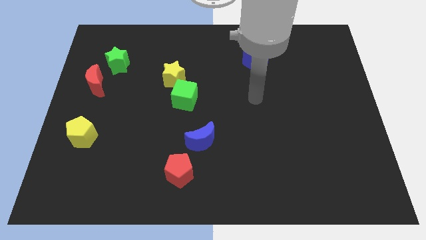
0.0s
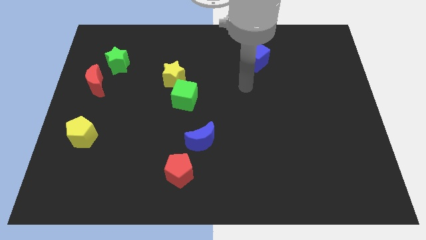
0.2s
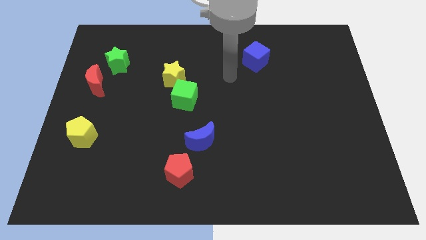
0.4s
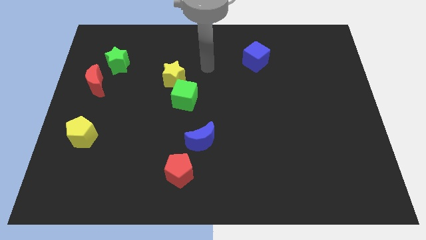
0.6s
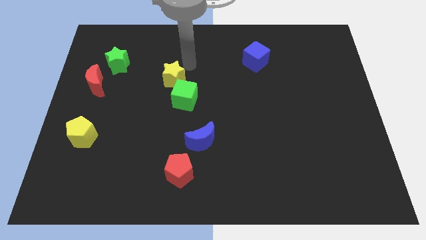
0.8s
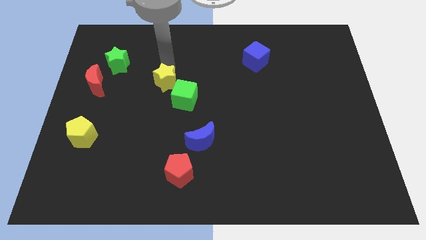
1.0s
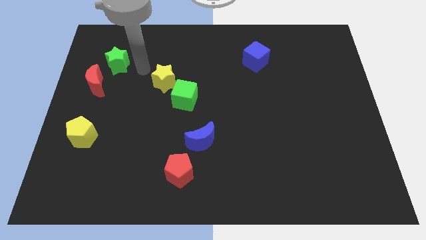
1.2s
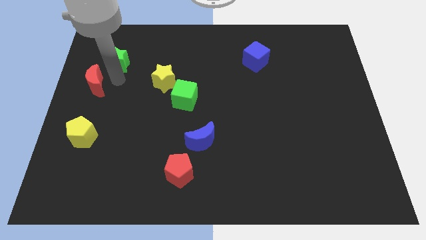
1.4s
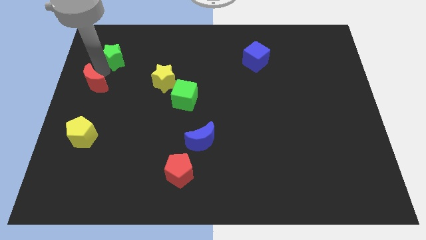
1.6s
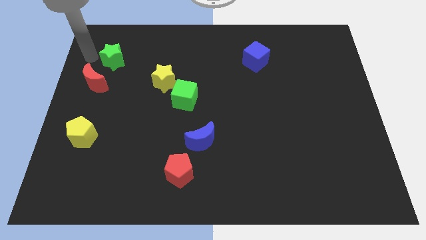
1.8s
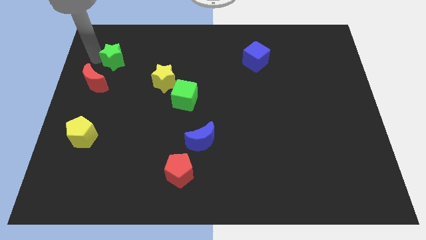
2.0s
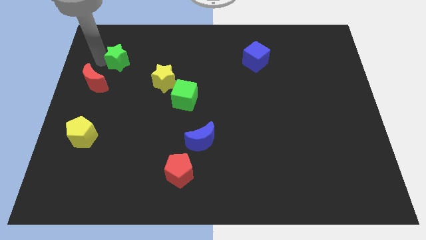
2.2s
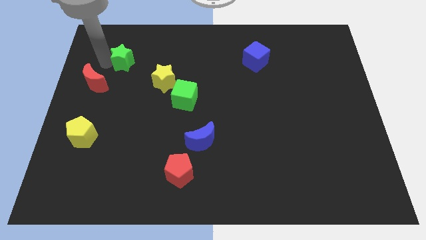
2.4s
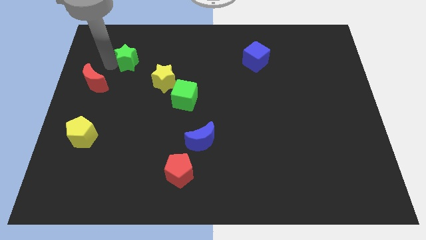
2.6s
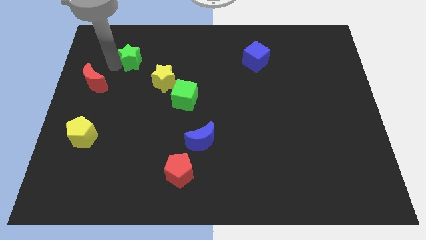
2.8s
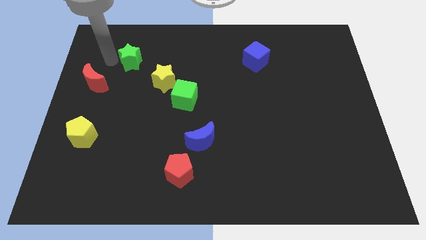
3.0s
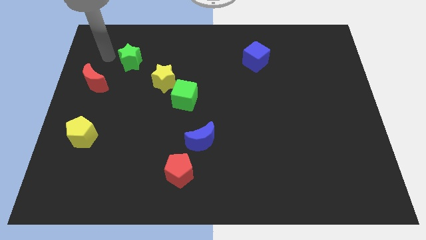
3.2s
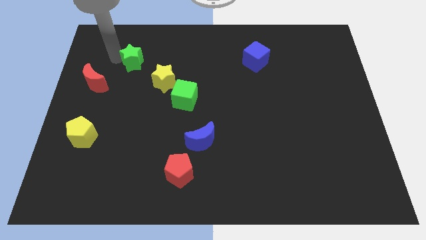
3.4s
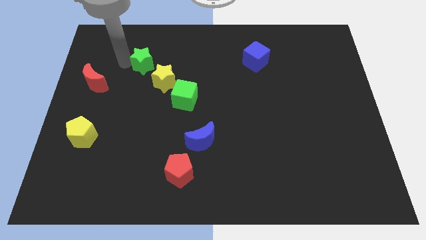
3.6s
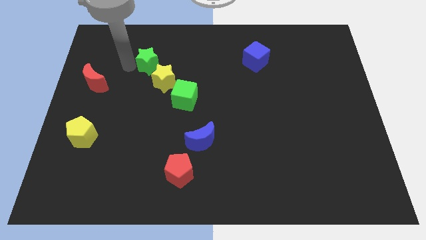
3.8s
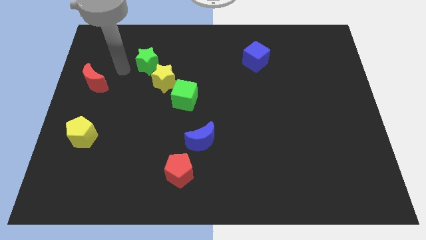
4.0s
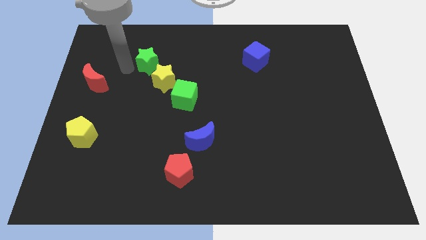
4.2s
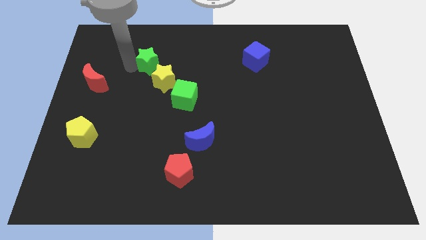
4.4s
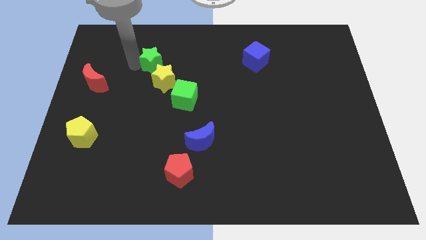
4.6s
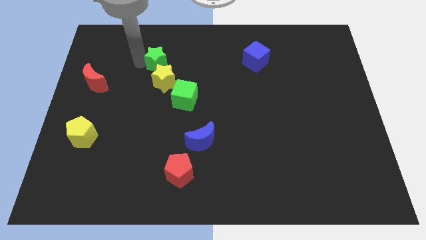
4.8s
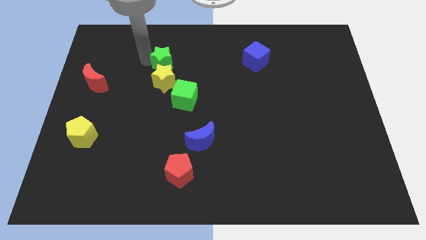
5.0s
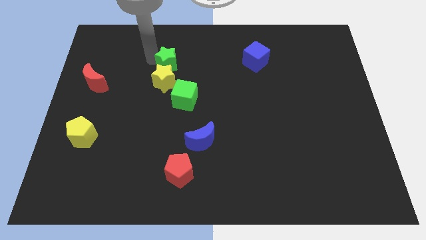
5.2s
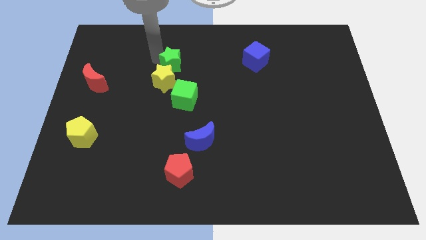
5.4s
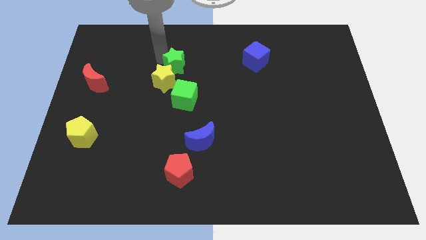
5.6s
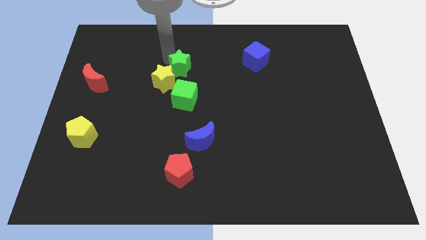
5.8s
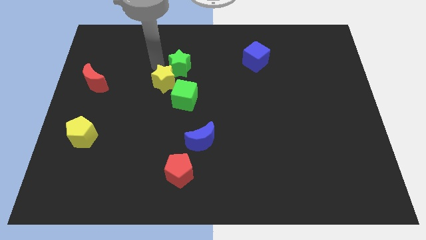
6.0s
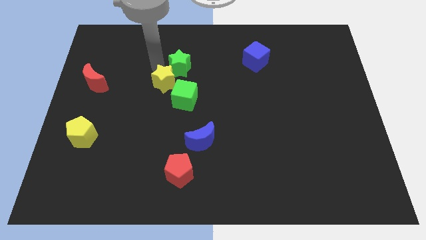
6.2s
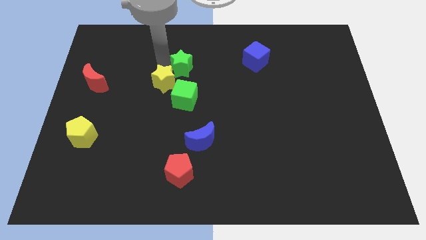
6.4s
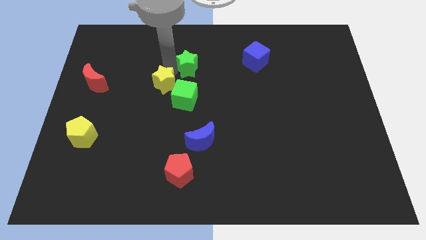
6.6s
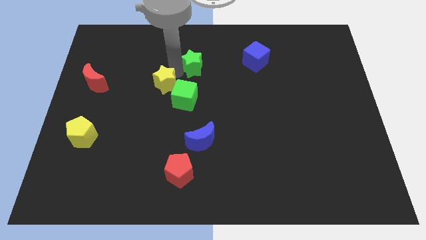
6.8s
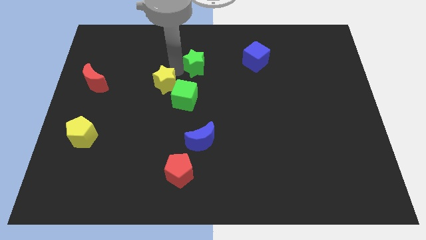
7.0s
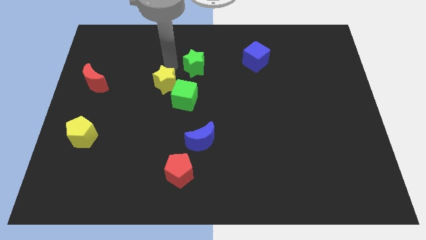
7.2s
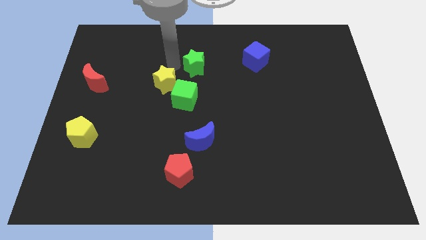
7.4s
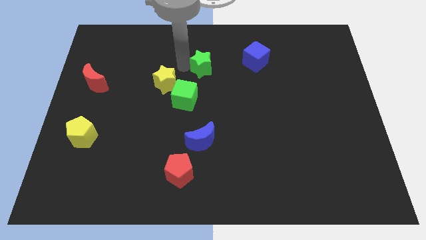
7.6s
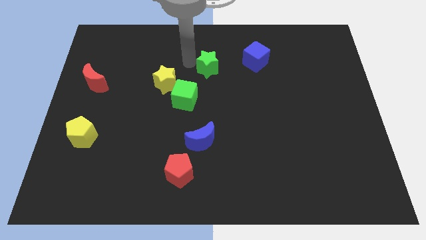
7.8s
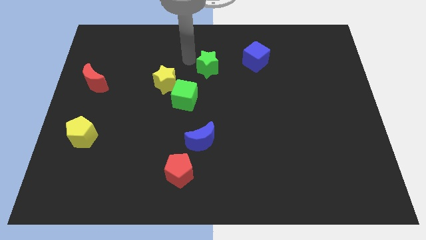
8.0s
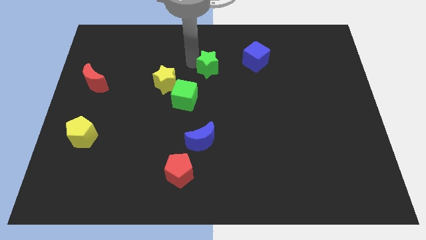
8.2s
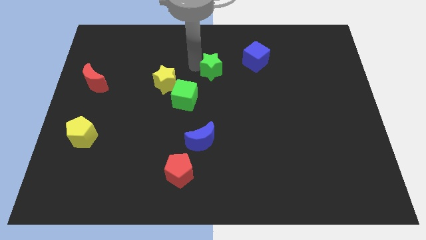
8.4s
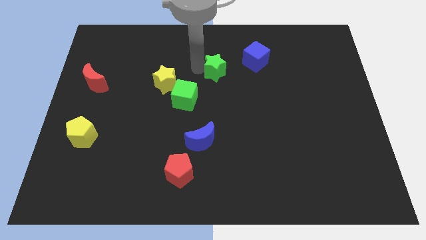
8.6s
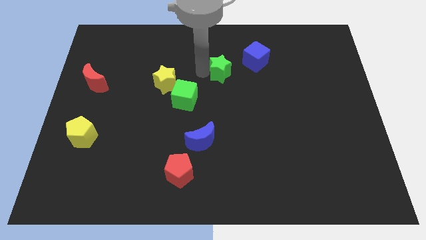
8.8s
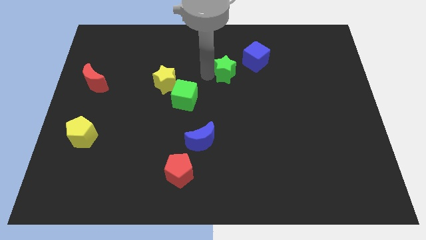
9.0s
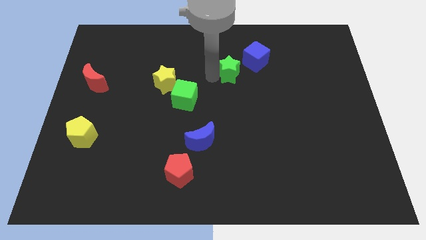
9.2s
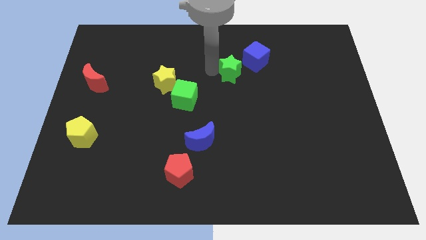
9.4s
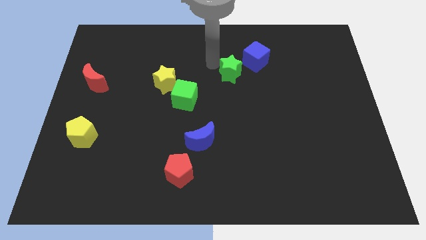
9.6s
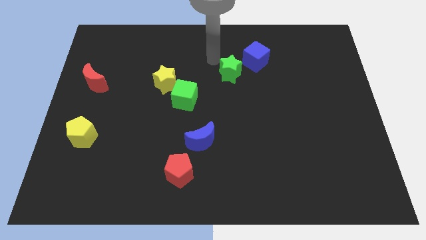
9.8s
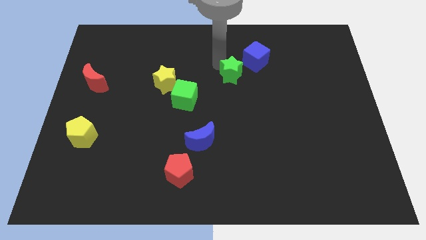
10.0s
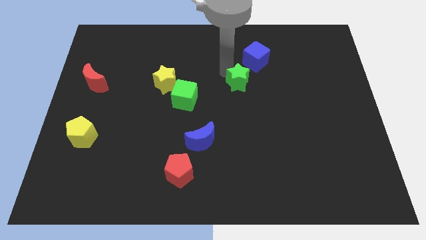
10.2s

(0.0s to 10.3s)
push the green star to the bottom of the blue cube

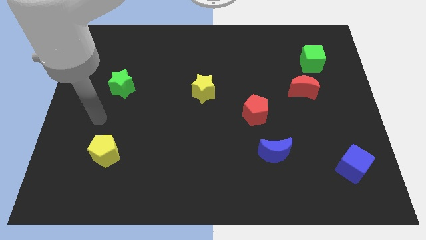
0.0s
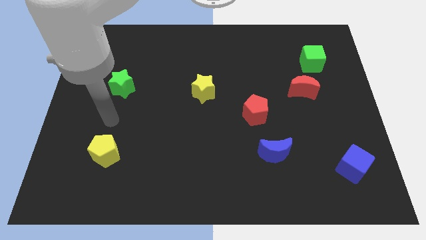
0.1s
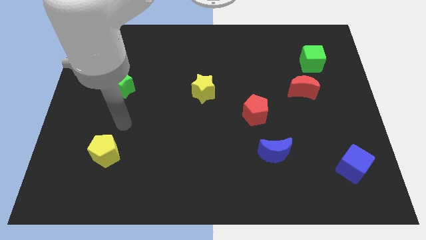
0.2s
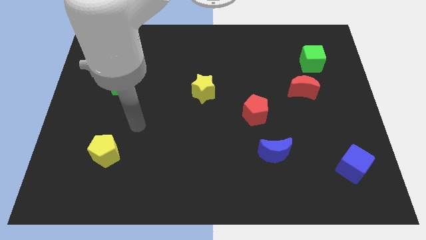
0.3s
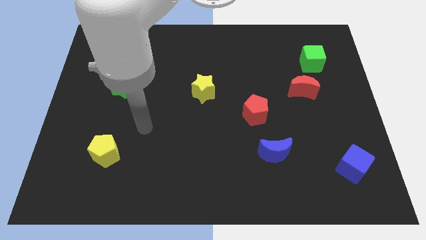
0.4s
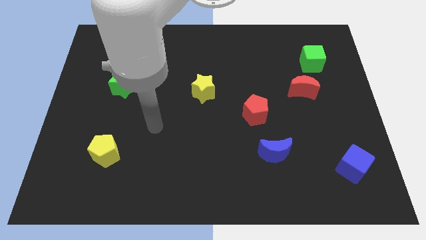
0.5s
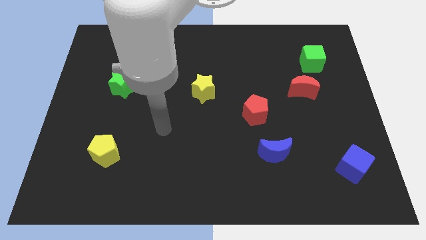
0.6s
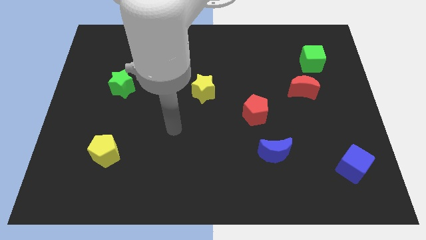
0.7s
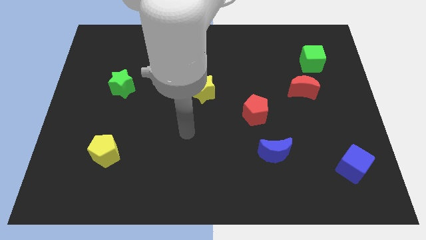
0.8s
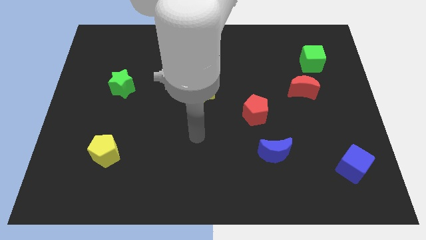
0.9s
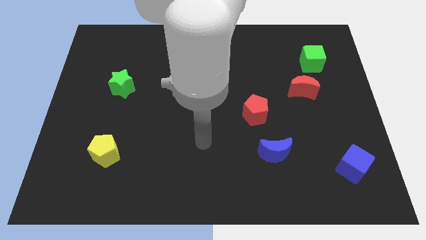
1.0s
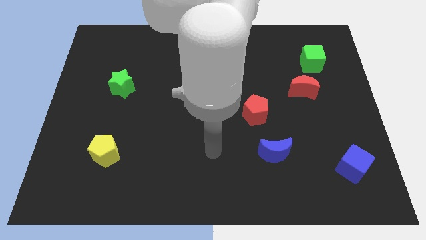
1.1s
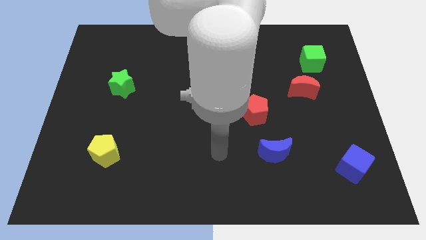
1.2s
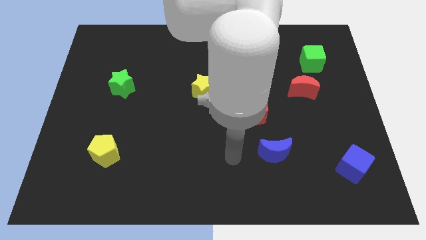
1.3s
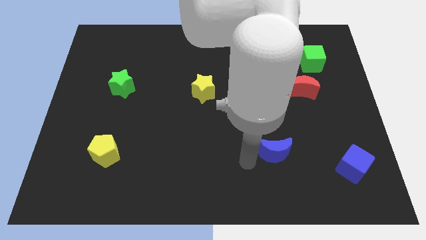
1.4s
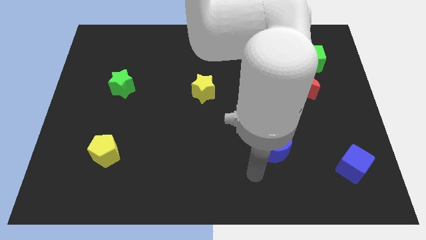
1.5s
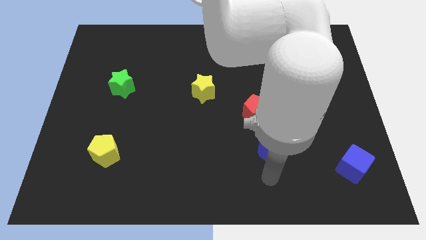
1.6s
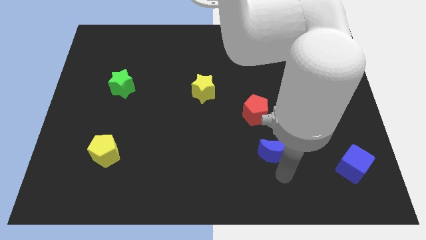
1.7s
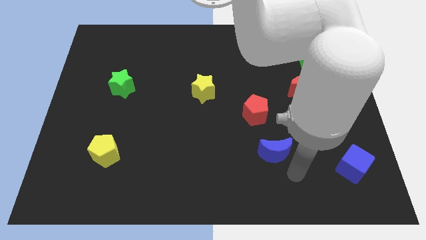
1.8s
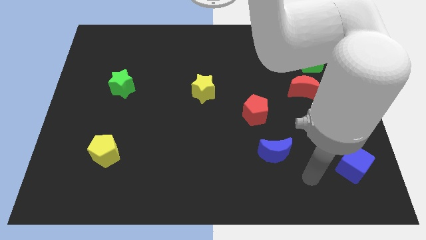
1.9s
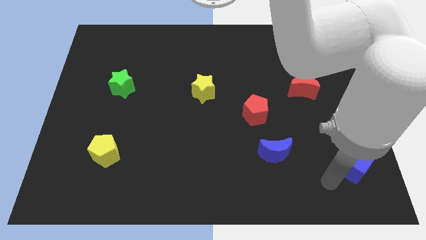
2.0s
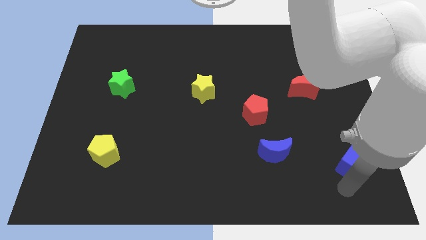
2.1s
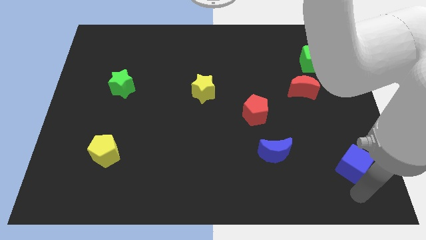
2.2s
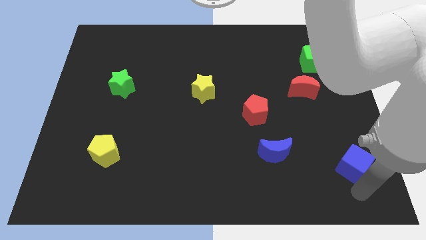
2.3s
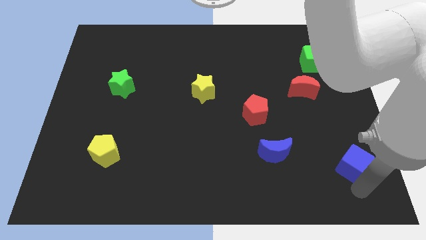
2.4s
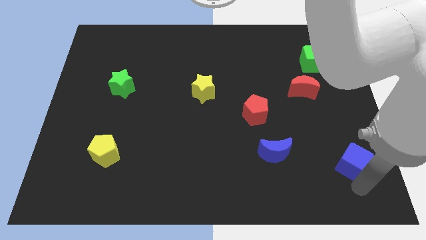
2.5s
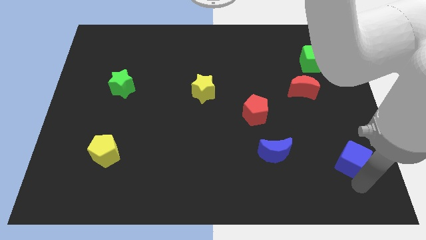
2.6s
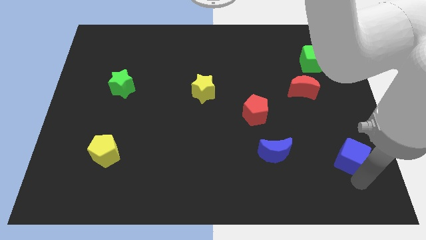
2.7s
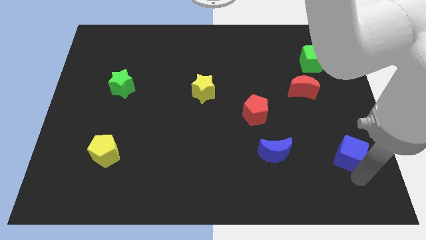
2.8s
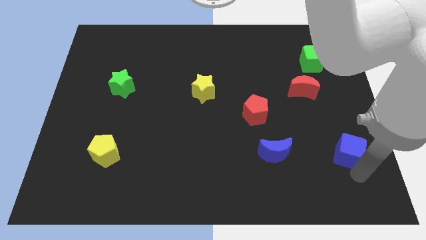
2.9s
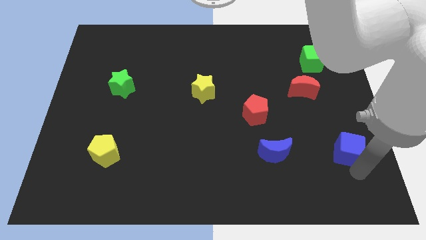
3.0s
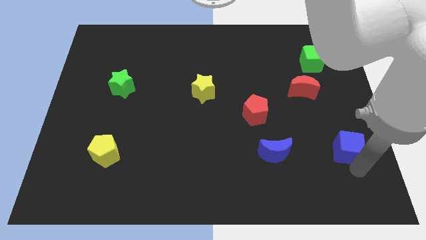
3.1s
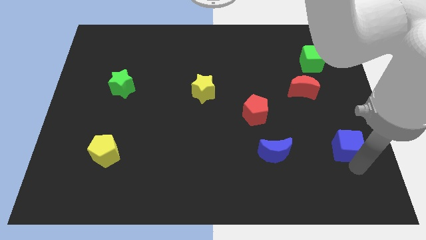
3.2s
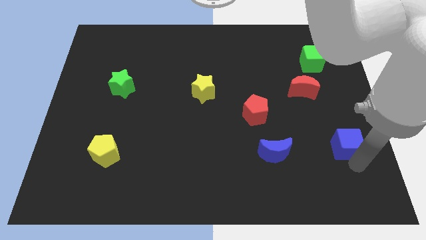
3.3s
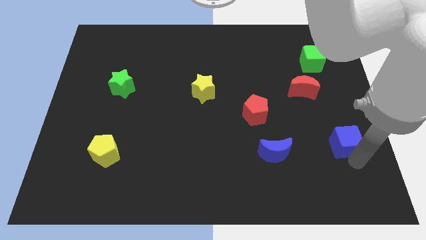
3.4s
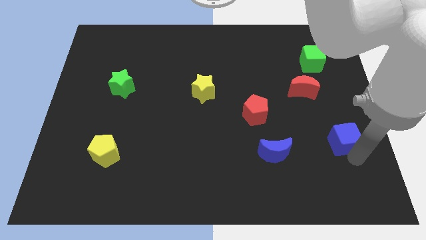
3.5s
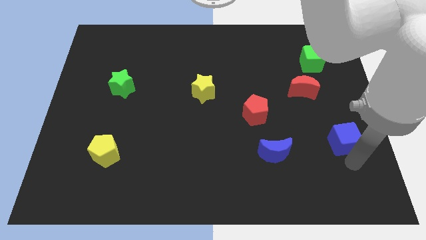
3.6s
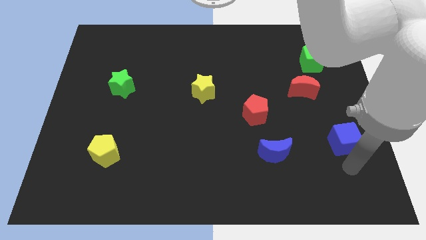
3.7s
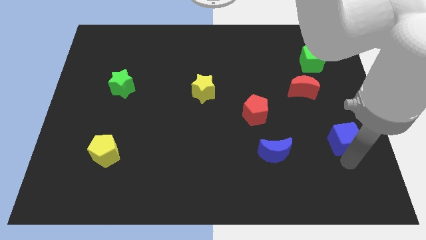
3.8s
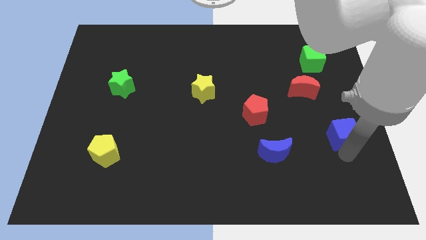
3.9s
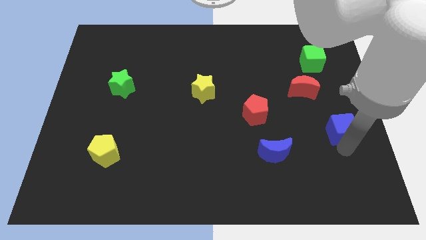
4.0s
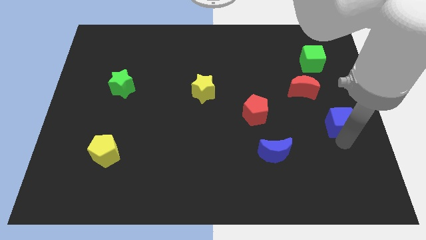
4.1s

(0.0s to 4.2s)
move the blue cube diagonally down and to the right of the red moon
